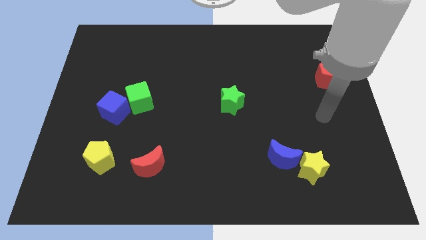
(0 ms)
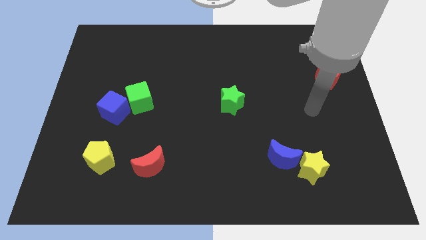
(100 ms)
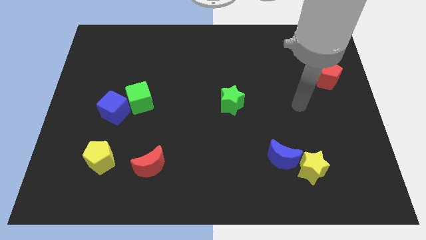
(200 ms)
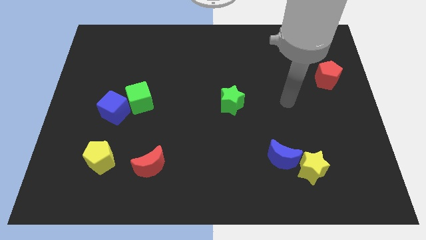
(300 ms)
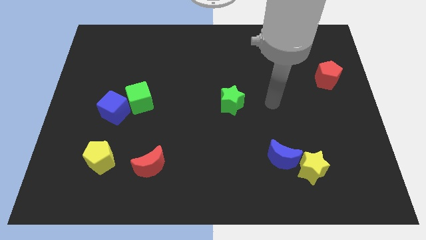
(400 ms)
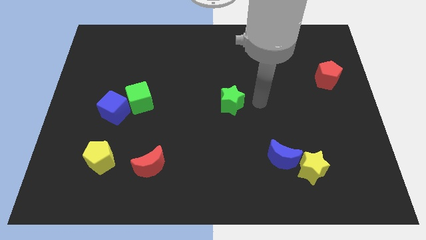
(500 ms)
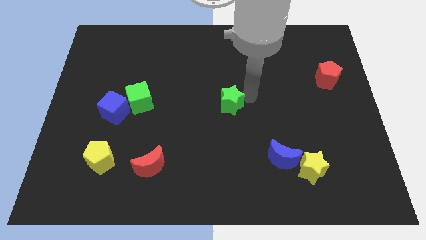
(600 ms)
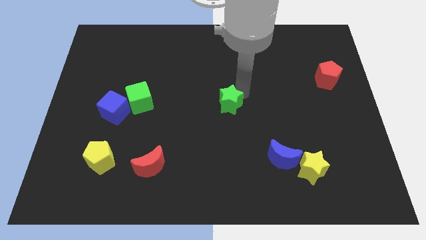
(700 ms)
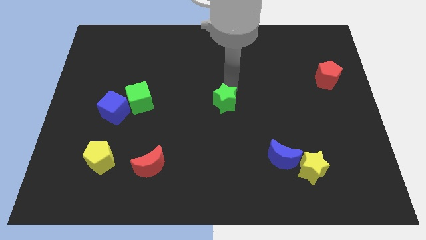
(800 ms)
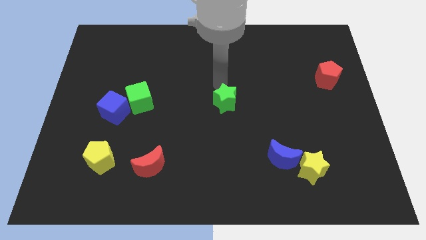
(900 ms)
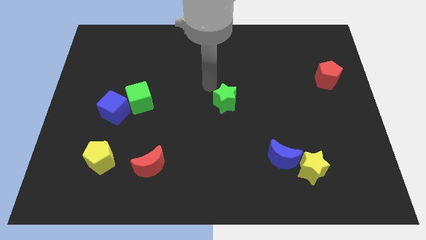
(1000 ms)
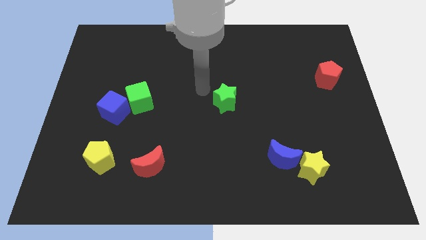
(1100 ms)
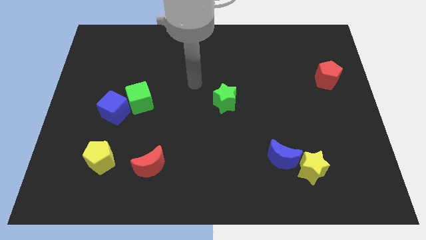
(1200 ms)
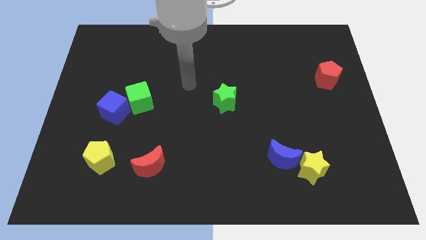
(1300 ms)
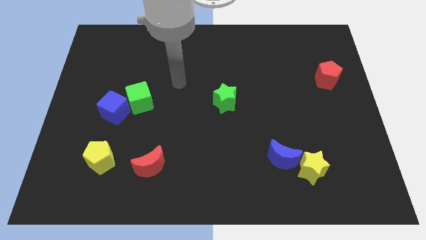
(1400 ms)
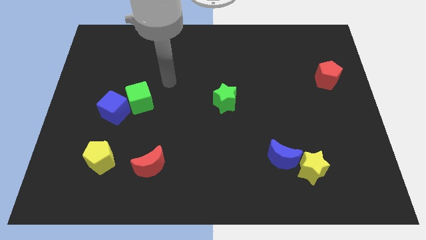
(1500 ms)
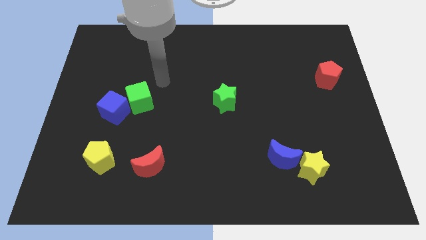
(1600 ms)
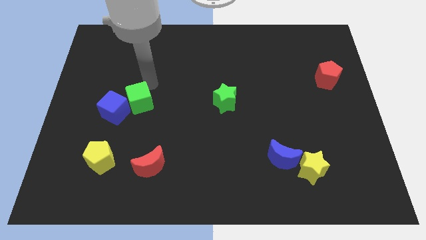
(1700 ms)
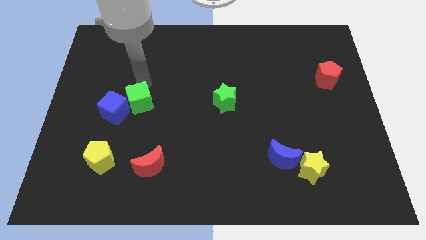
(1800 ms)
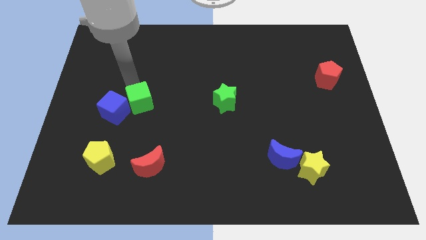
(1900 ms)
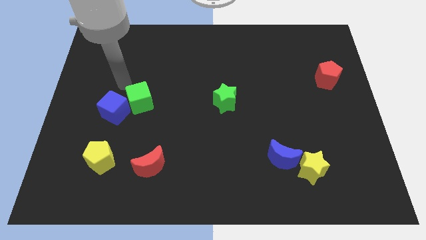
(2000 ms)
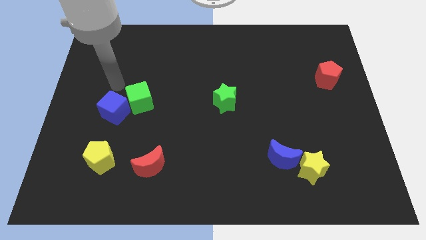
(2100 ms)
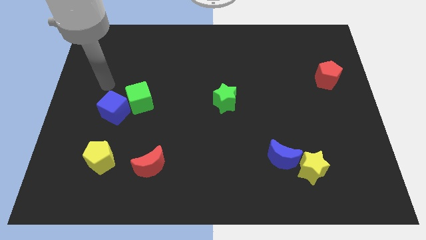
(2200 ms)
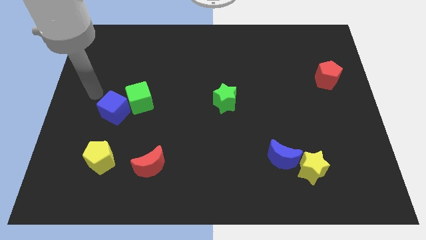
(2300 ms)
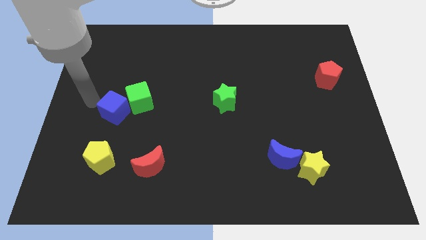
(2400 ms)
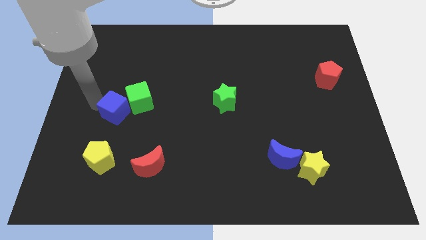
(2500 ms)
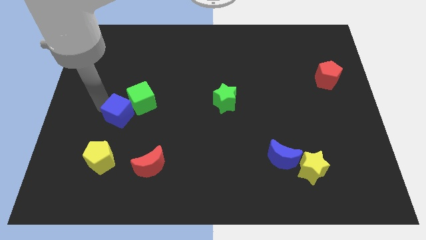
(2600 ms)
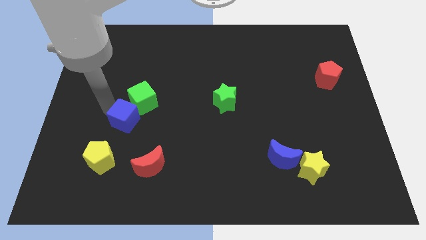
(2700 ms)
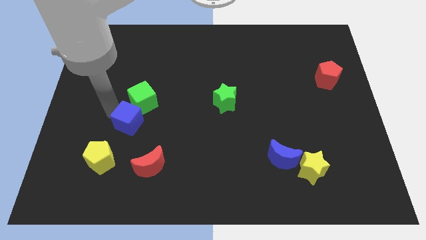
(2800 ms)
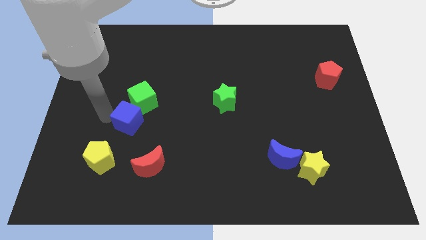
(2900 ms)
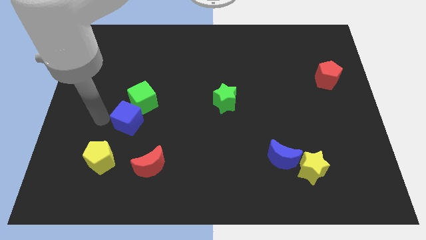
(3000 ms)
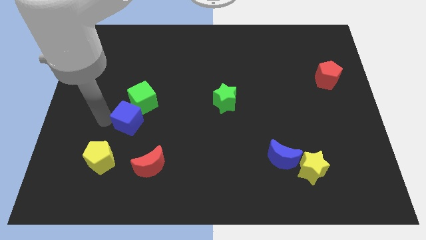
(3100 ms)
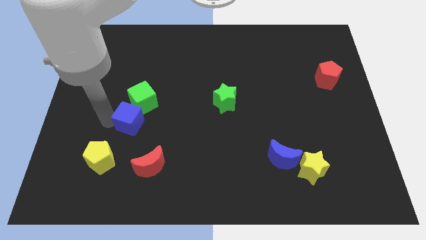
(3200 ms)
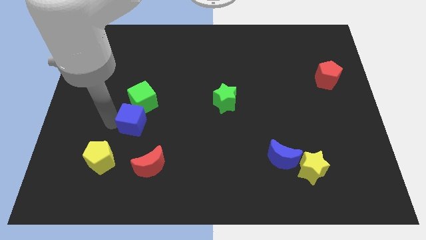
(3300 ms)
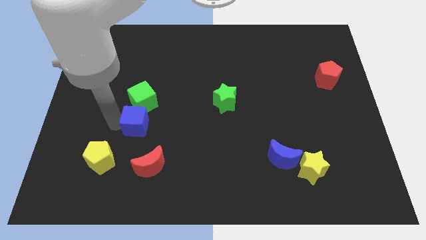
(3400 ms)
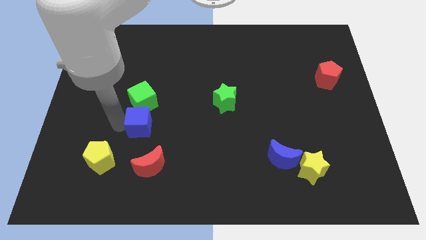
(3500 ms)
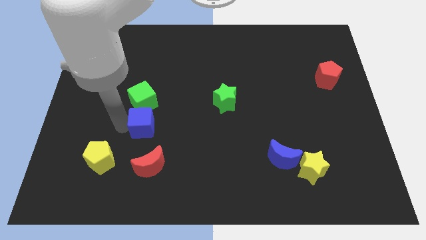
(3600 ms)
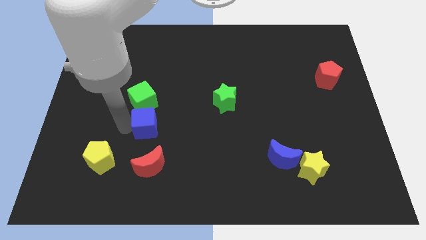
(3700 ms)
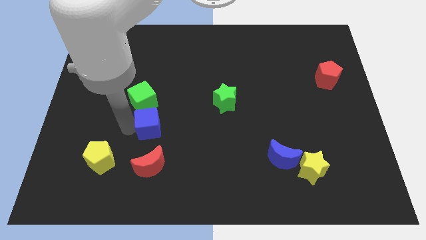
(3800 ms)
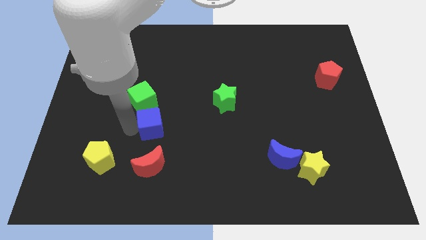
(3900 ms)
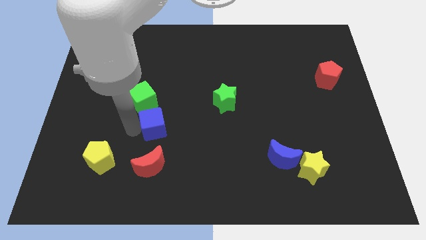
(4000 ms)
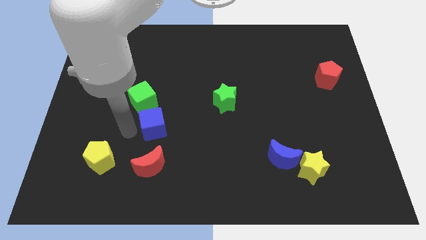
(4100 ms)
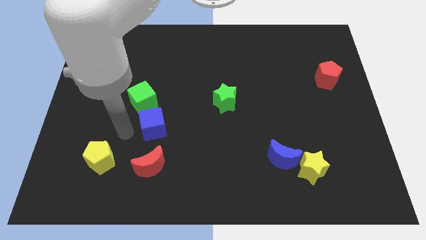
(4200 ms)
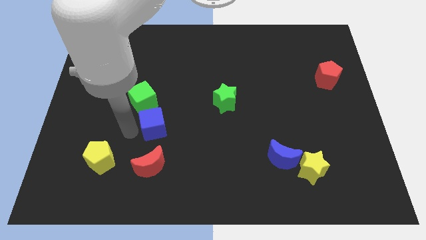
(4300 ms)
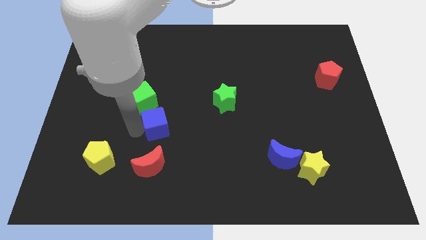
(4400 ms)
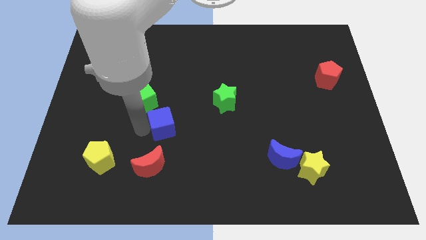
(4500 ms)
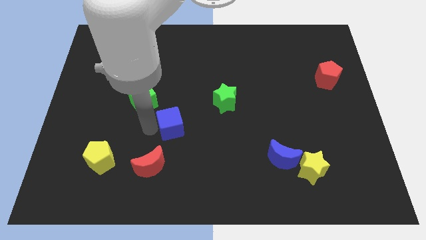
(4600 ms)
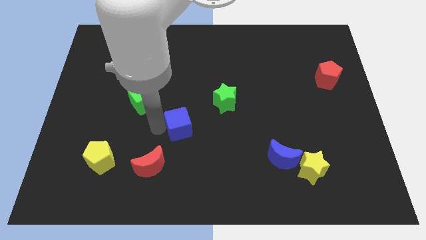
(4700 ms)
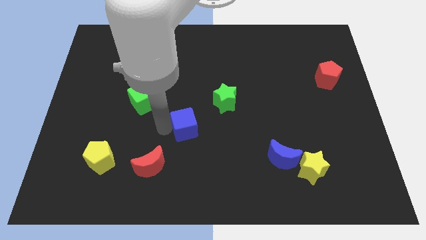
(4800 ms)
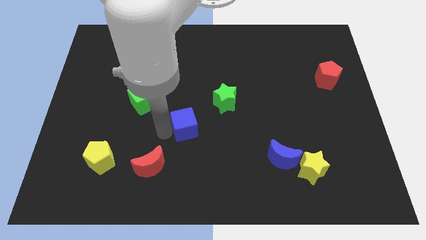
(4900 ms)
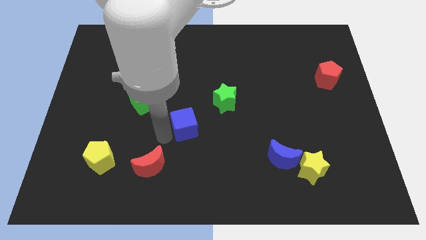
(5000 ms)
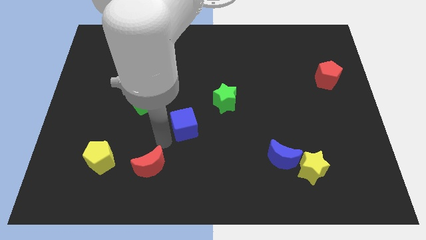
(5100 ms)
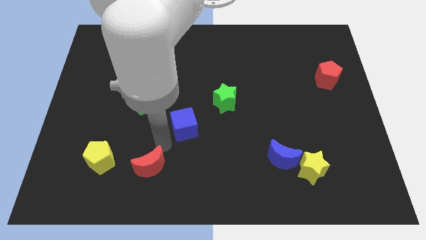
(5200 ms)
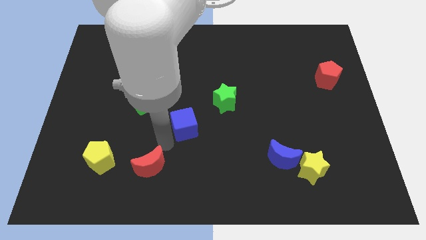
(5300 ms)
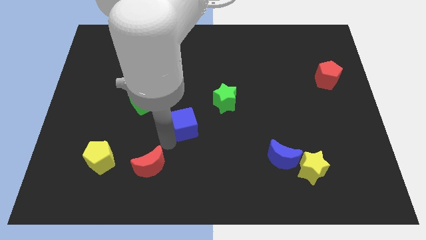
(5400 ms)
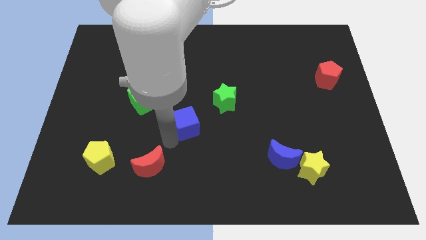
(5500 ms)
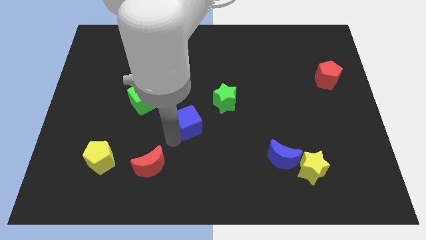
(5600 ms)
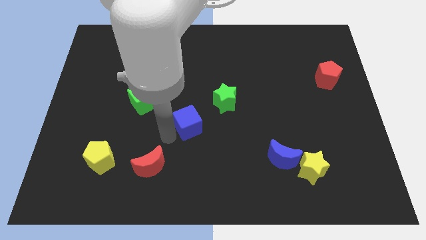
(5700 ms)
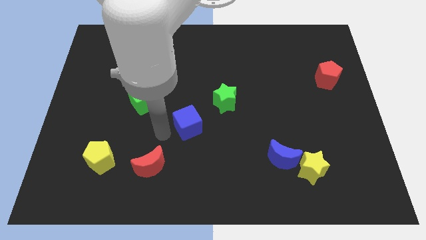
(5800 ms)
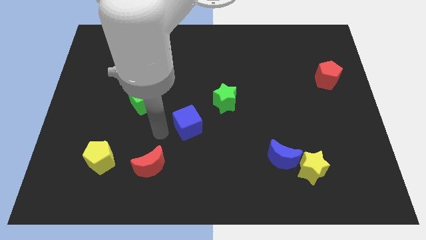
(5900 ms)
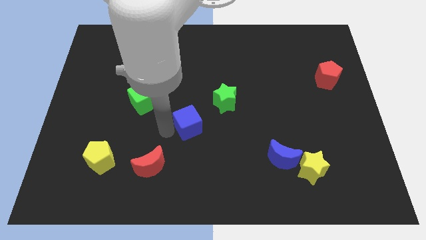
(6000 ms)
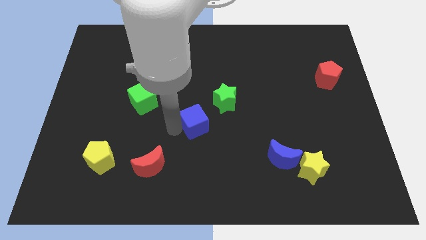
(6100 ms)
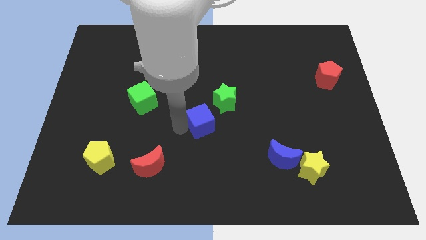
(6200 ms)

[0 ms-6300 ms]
slide the blue cube right

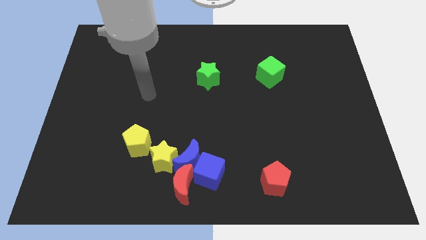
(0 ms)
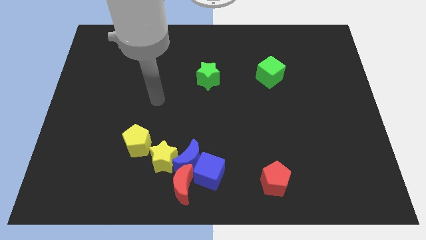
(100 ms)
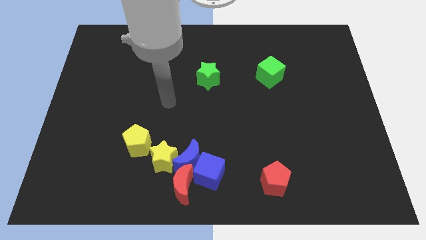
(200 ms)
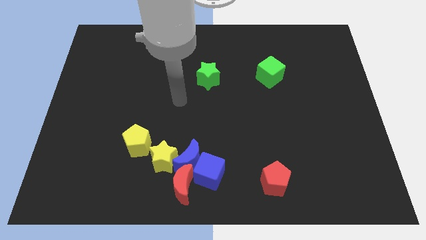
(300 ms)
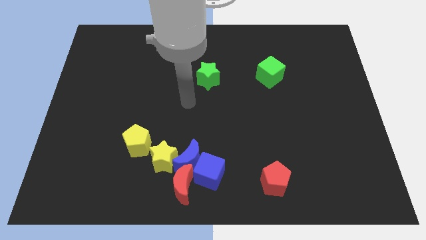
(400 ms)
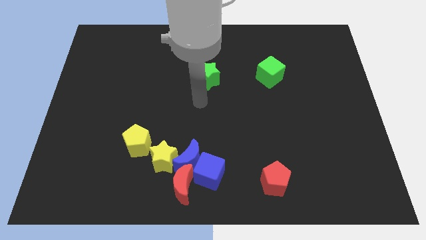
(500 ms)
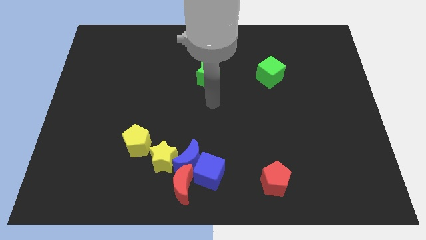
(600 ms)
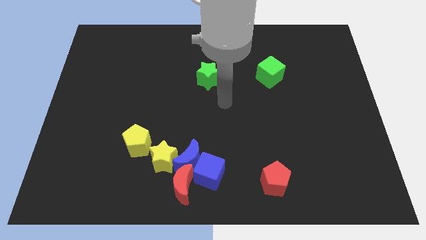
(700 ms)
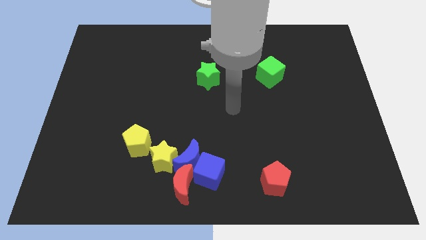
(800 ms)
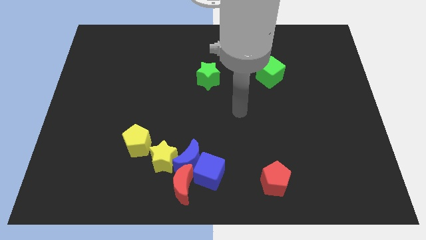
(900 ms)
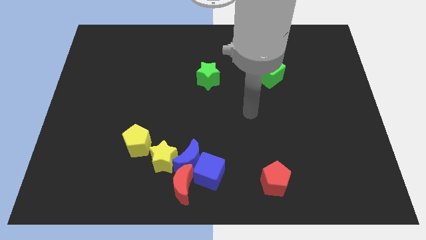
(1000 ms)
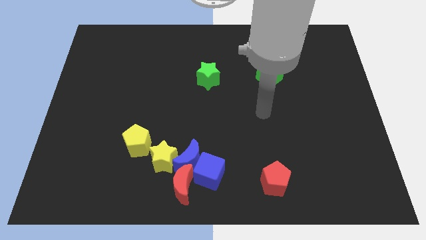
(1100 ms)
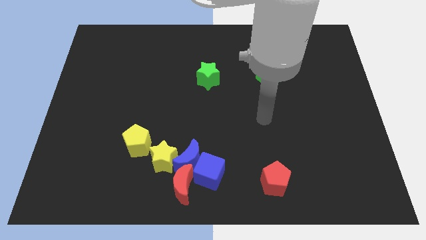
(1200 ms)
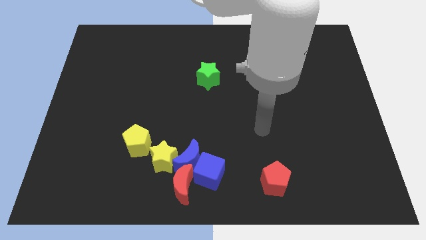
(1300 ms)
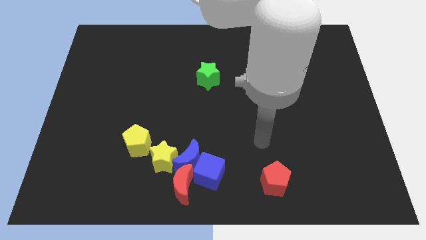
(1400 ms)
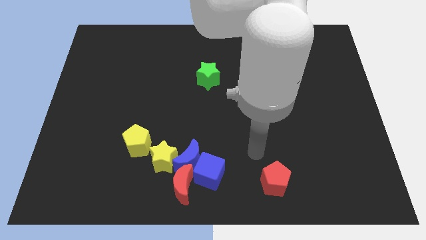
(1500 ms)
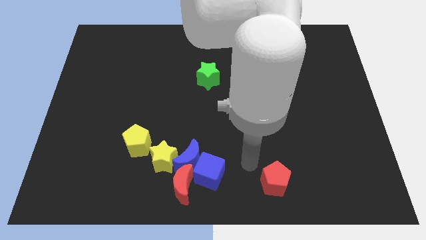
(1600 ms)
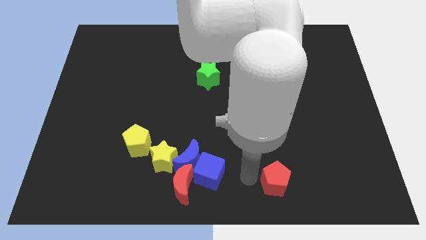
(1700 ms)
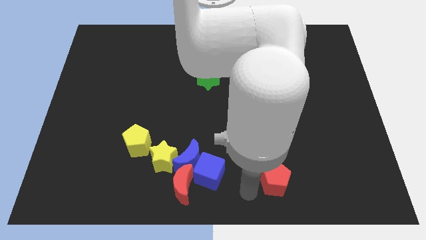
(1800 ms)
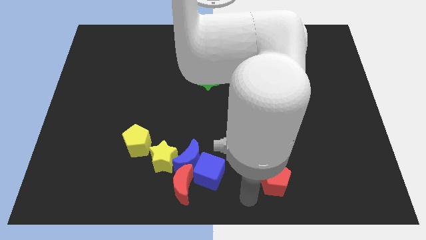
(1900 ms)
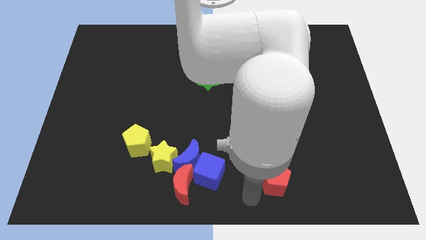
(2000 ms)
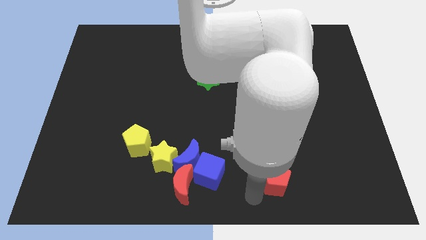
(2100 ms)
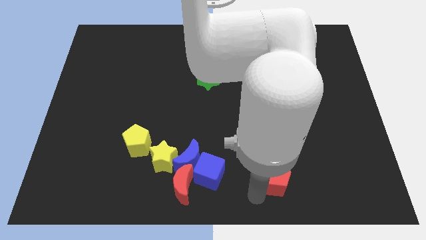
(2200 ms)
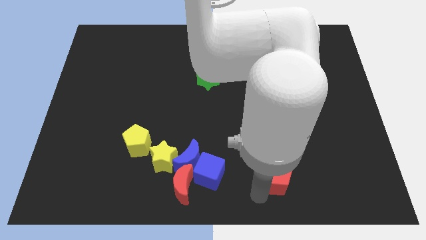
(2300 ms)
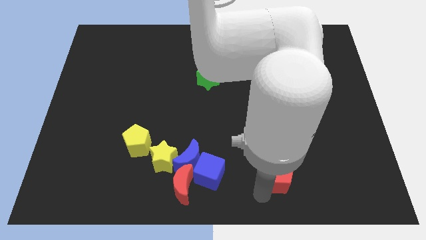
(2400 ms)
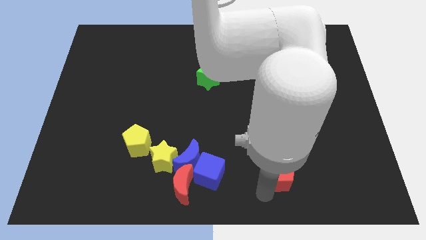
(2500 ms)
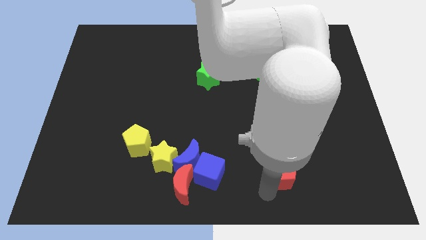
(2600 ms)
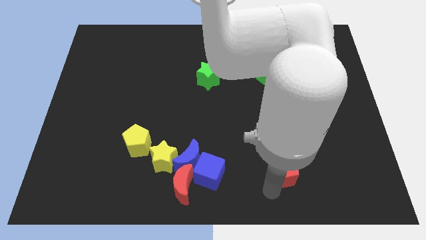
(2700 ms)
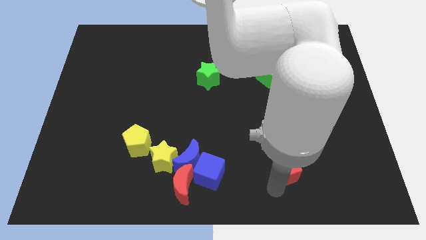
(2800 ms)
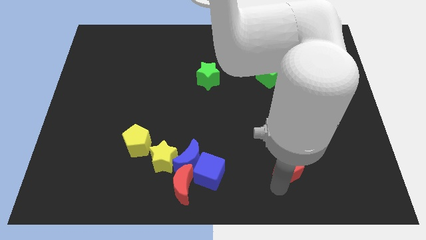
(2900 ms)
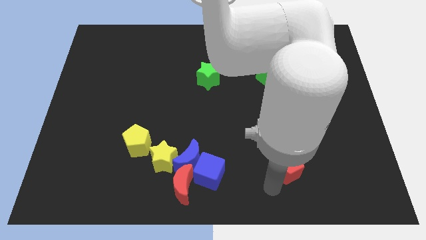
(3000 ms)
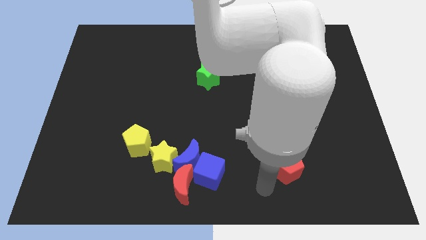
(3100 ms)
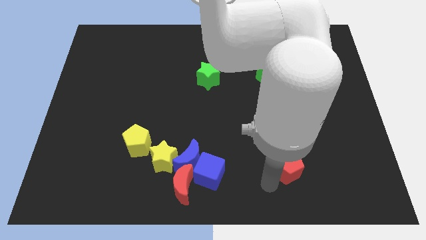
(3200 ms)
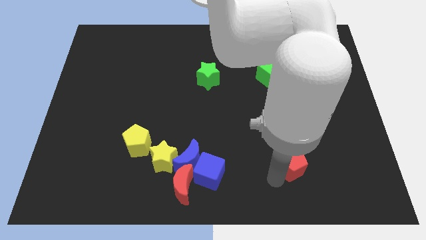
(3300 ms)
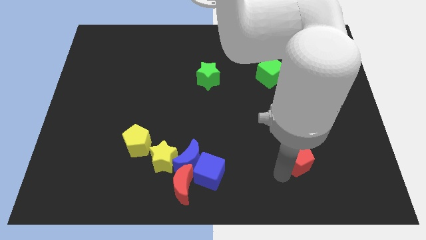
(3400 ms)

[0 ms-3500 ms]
push the red pentagon somewhat upwards and right diagonally
